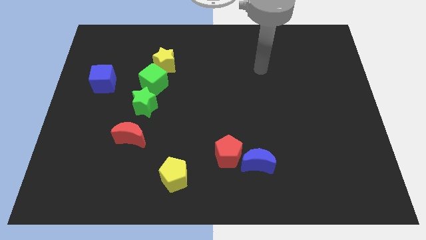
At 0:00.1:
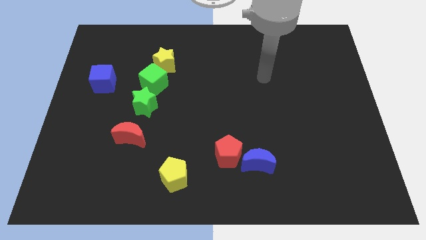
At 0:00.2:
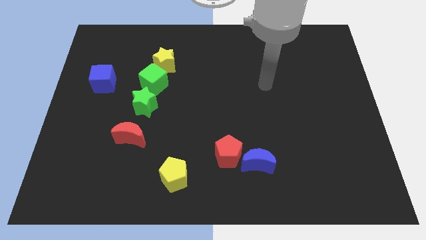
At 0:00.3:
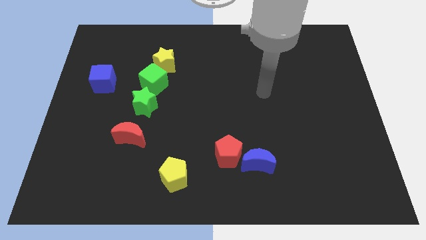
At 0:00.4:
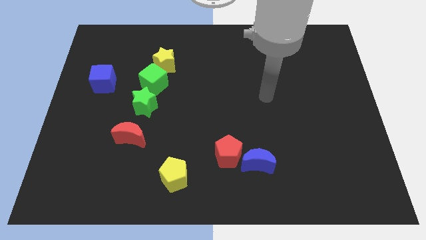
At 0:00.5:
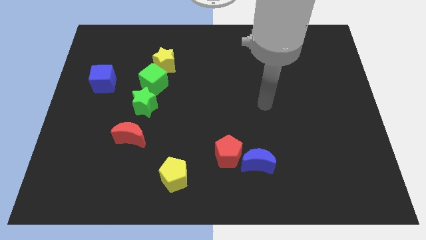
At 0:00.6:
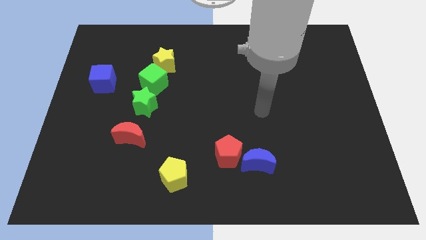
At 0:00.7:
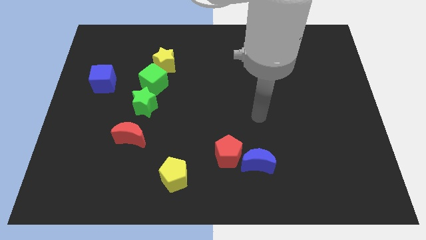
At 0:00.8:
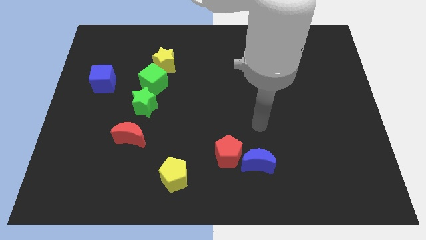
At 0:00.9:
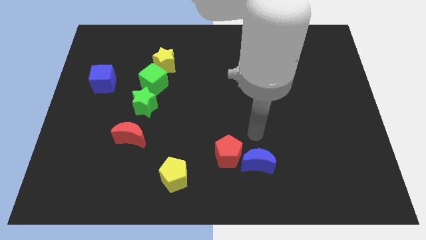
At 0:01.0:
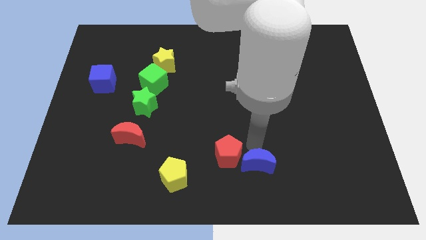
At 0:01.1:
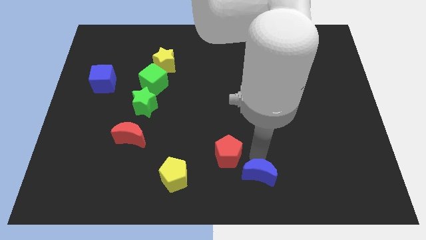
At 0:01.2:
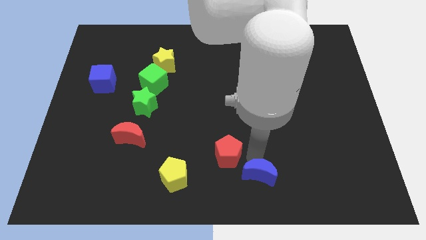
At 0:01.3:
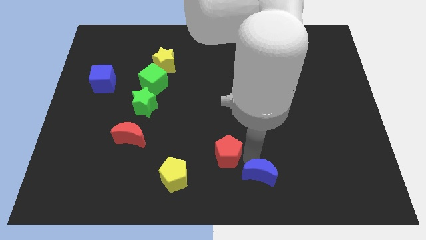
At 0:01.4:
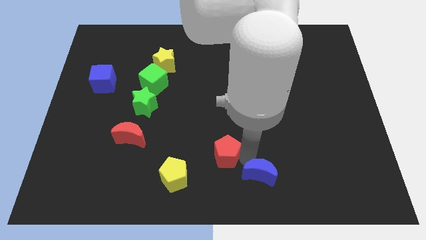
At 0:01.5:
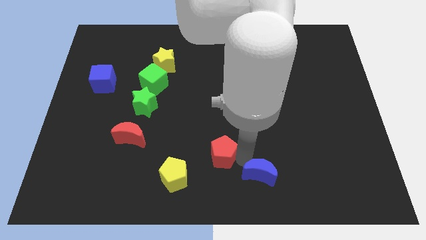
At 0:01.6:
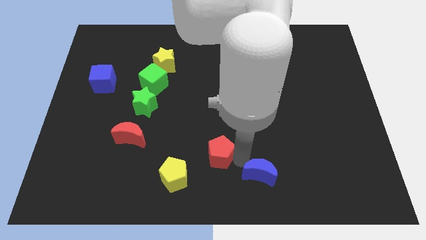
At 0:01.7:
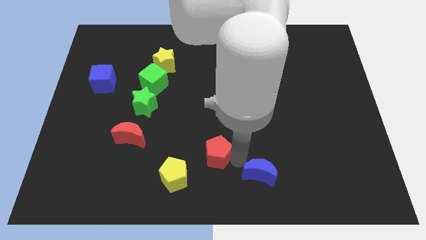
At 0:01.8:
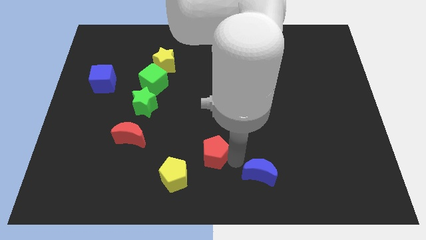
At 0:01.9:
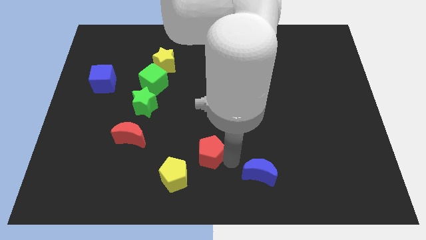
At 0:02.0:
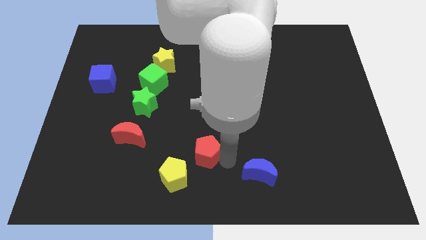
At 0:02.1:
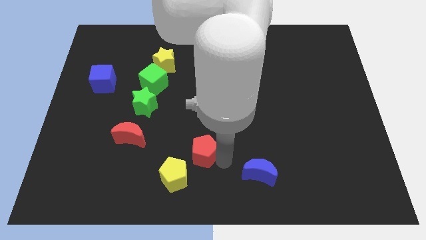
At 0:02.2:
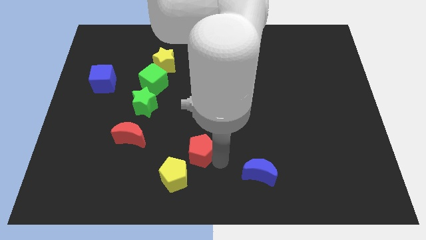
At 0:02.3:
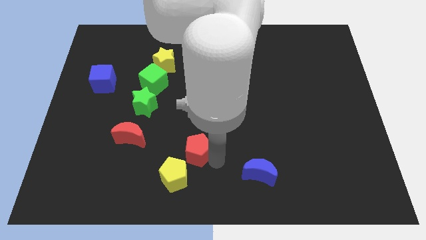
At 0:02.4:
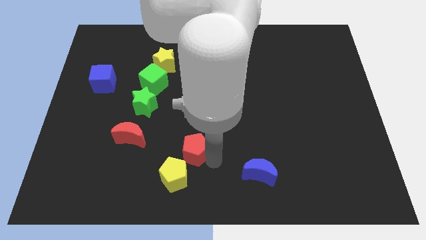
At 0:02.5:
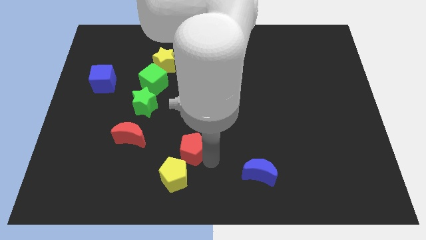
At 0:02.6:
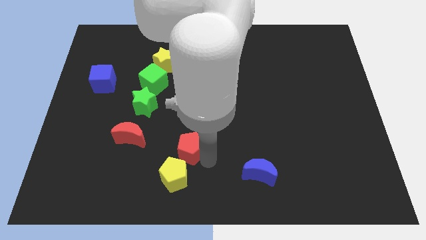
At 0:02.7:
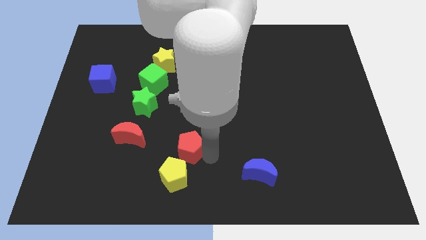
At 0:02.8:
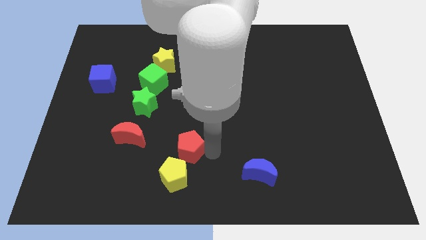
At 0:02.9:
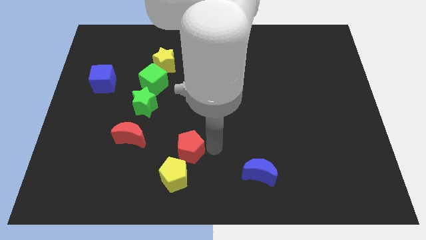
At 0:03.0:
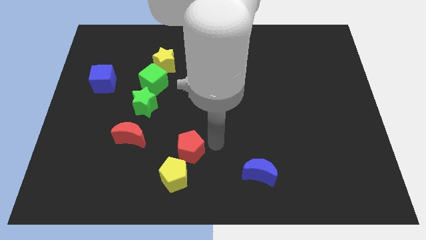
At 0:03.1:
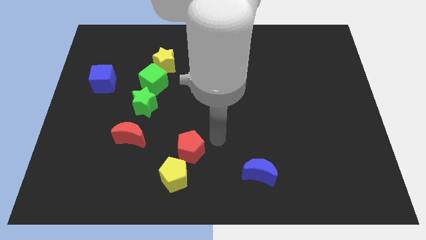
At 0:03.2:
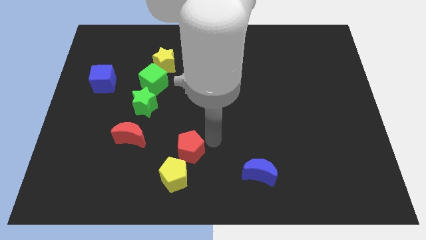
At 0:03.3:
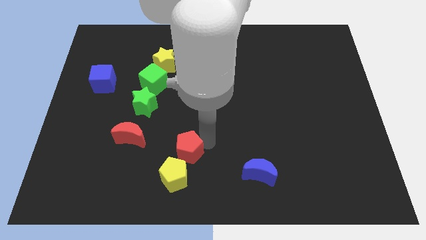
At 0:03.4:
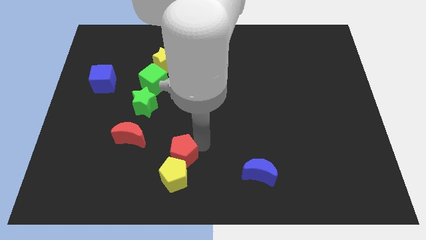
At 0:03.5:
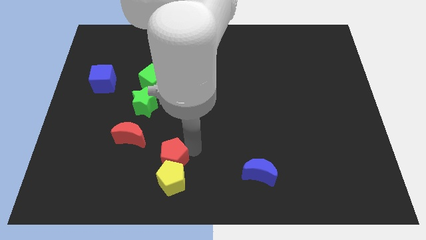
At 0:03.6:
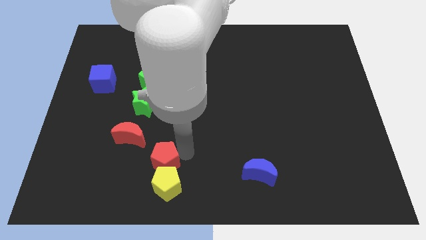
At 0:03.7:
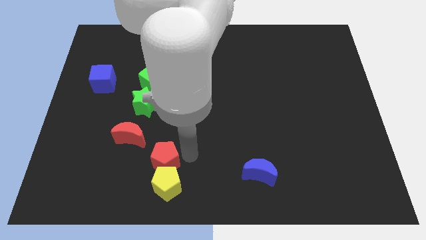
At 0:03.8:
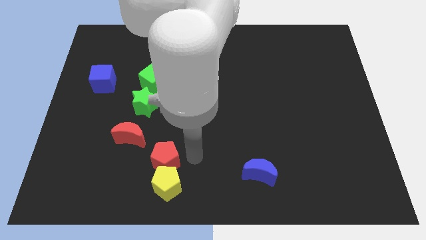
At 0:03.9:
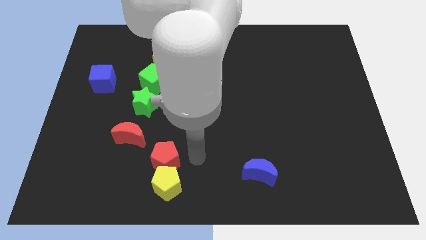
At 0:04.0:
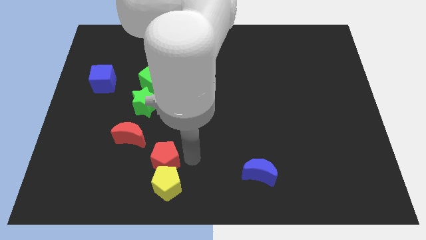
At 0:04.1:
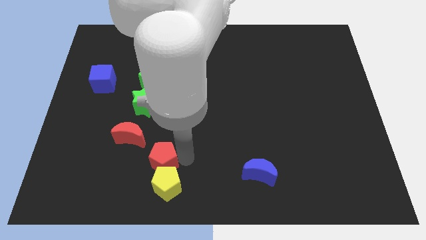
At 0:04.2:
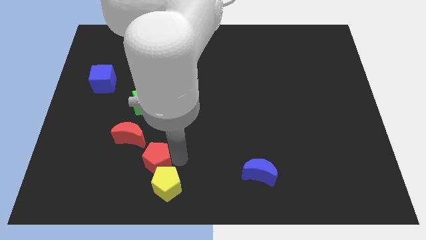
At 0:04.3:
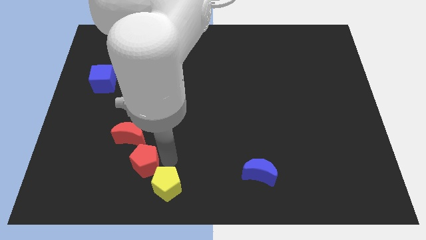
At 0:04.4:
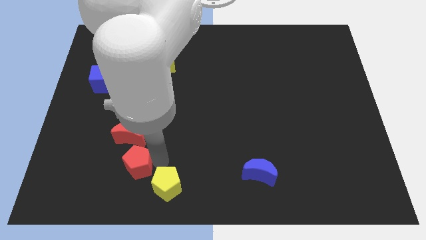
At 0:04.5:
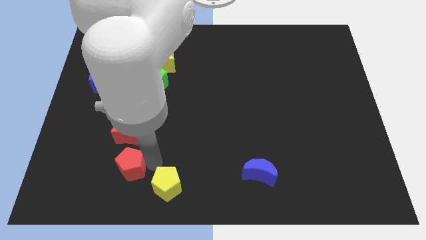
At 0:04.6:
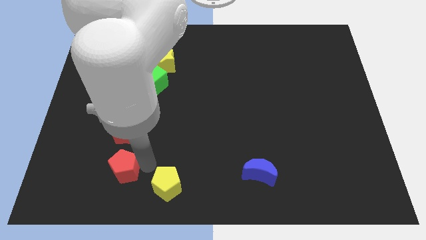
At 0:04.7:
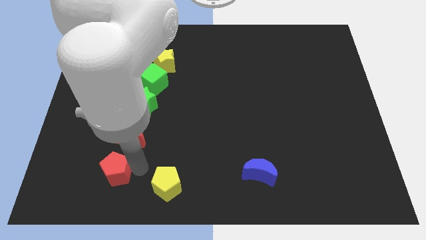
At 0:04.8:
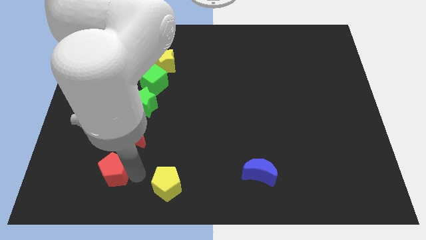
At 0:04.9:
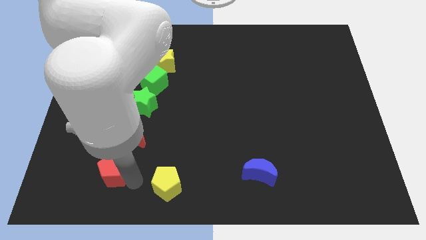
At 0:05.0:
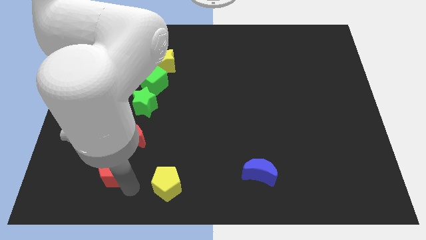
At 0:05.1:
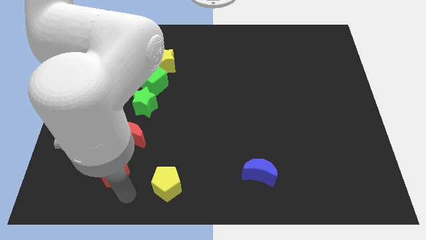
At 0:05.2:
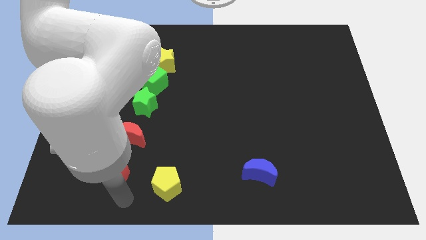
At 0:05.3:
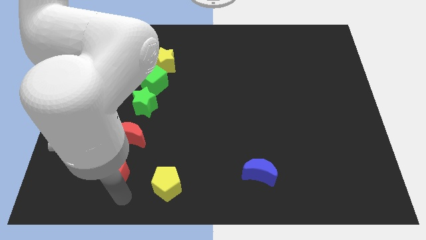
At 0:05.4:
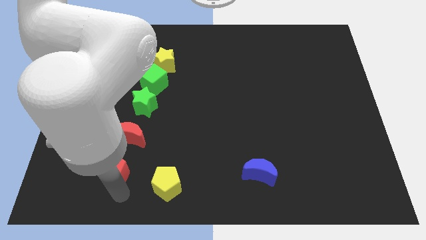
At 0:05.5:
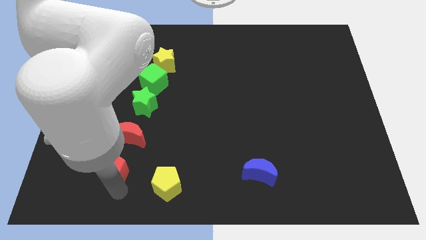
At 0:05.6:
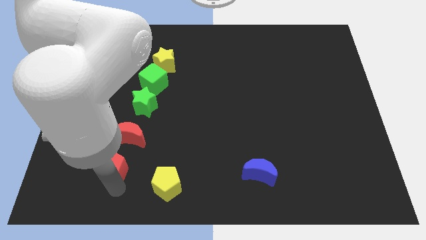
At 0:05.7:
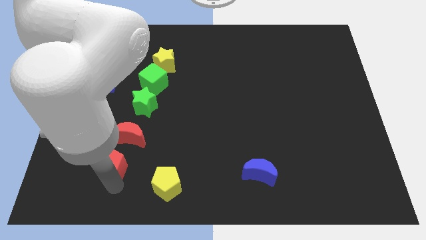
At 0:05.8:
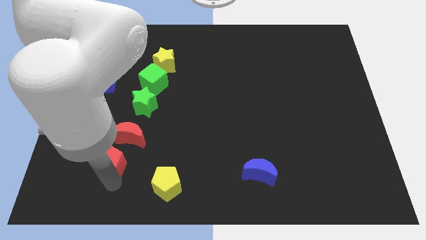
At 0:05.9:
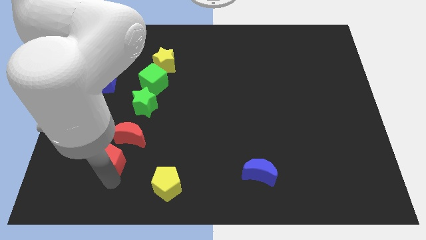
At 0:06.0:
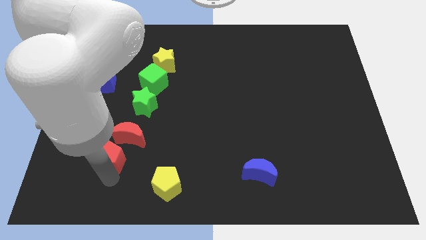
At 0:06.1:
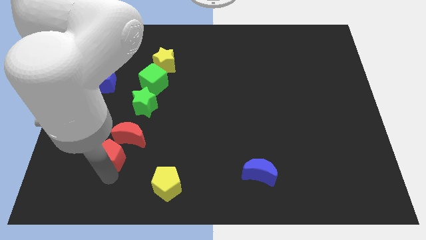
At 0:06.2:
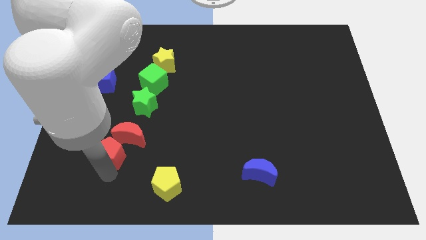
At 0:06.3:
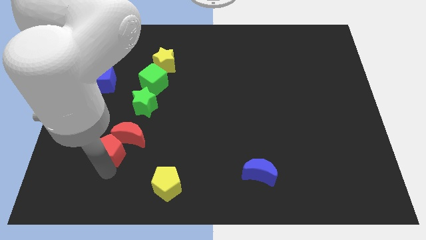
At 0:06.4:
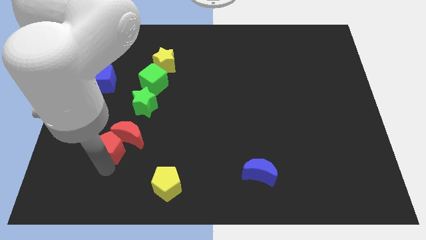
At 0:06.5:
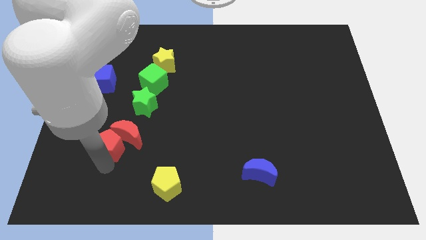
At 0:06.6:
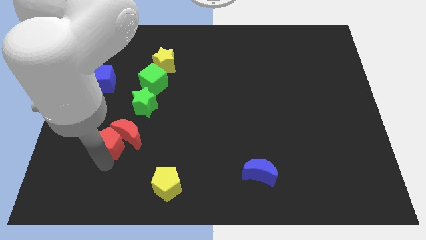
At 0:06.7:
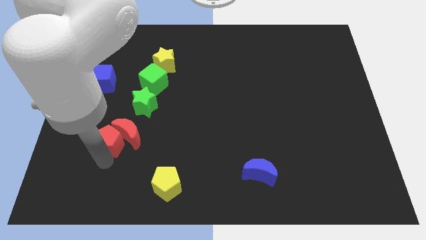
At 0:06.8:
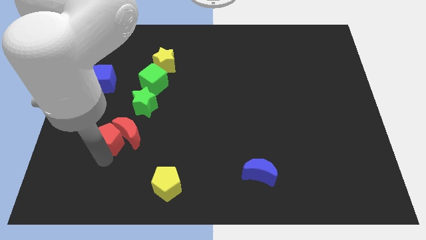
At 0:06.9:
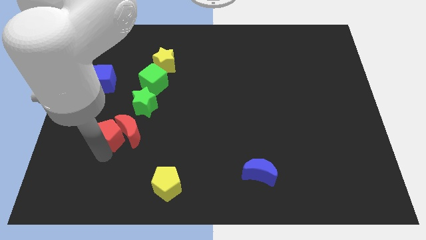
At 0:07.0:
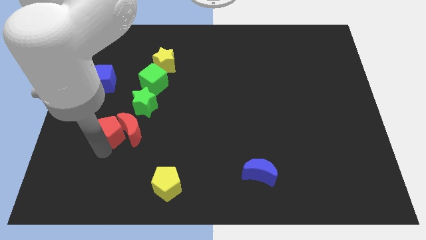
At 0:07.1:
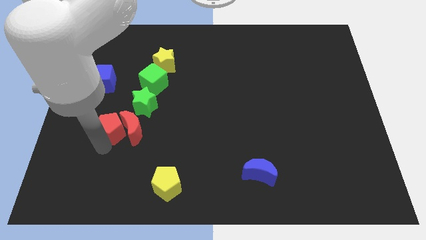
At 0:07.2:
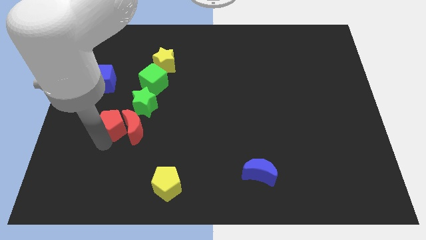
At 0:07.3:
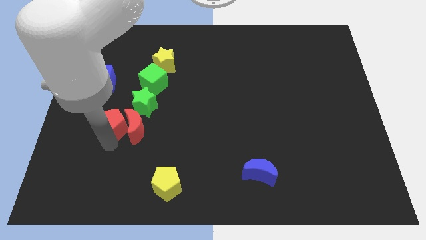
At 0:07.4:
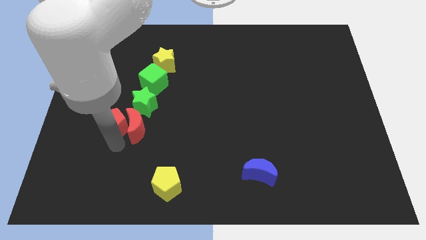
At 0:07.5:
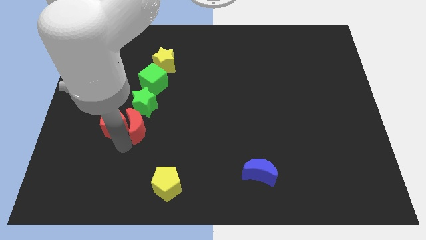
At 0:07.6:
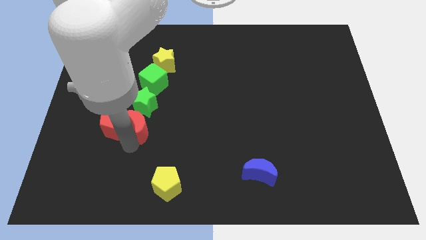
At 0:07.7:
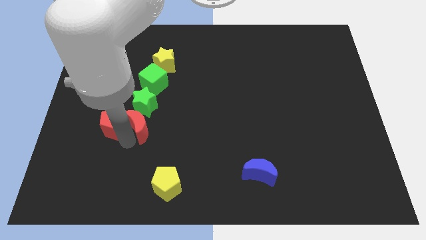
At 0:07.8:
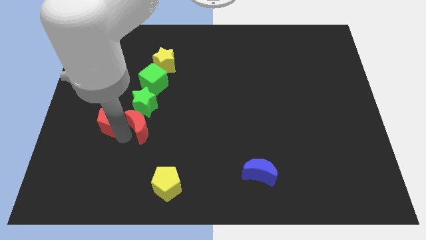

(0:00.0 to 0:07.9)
put the red pentagon just left of the green star
